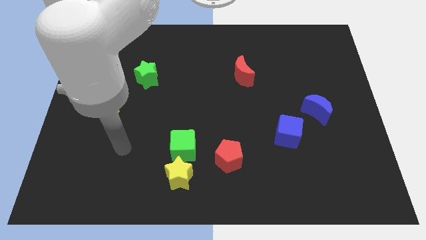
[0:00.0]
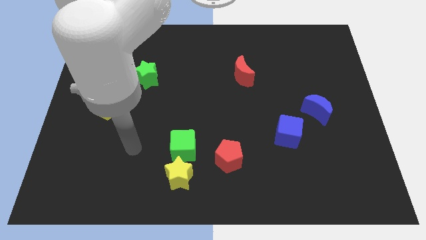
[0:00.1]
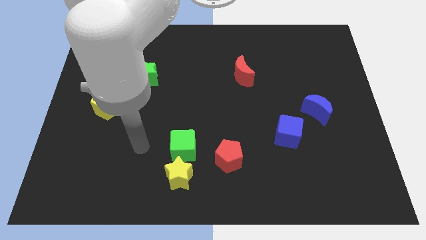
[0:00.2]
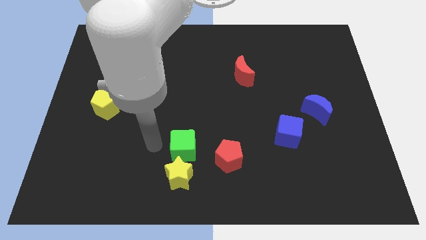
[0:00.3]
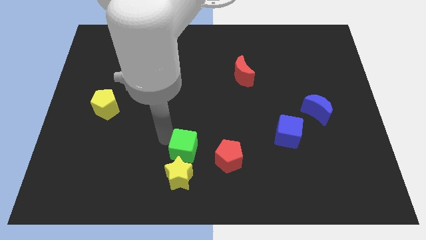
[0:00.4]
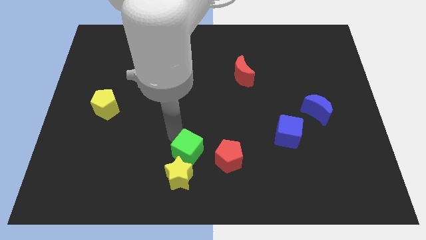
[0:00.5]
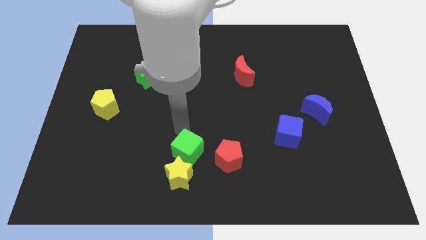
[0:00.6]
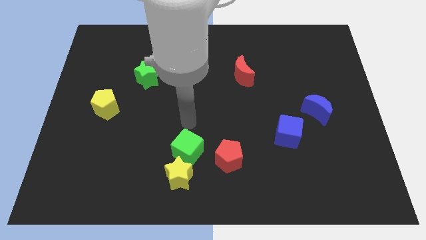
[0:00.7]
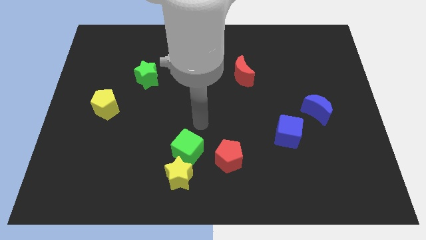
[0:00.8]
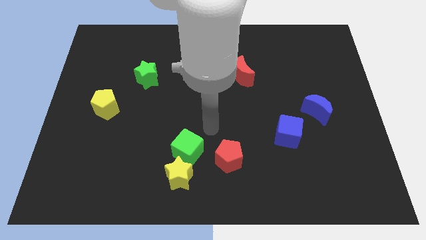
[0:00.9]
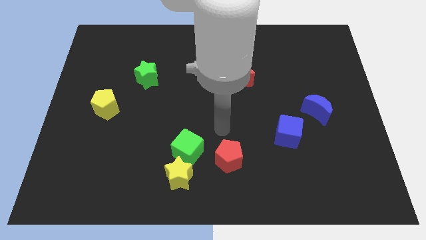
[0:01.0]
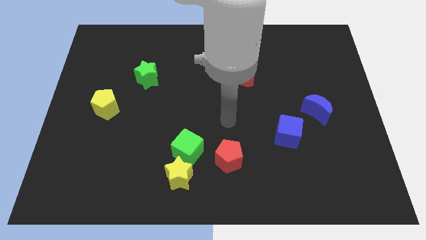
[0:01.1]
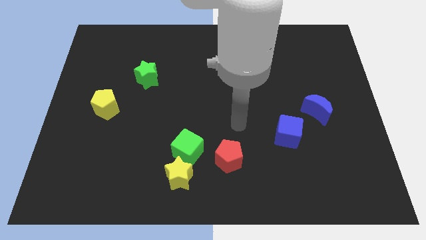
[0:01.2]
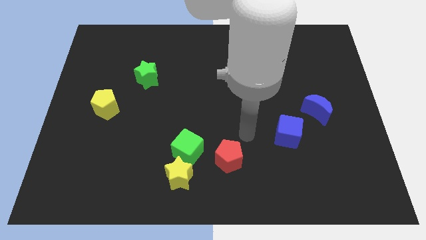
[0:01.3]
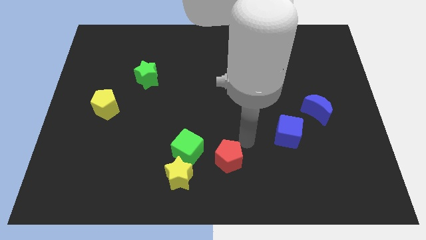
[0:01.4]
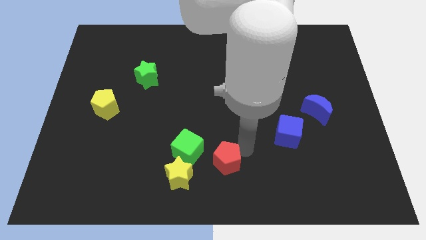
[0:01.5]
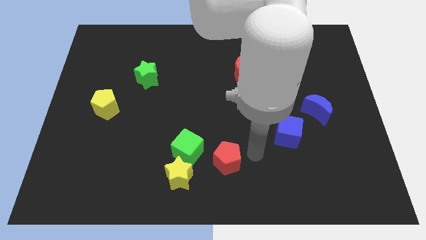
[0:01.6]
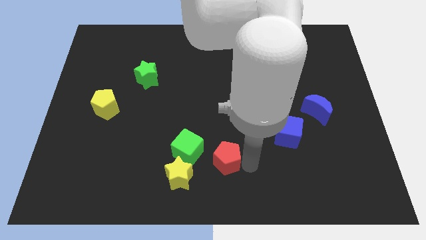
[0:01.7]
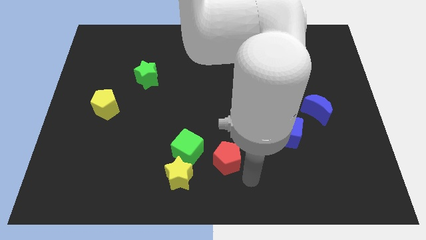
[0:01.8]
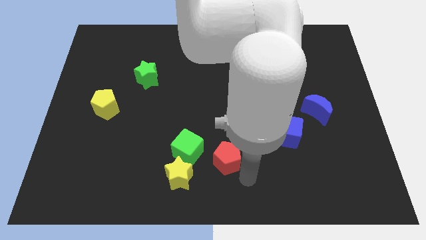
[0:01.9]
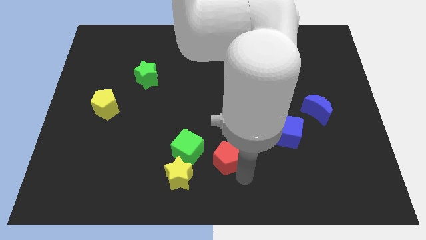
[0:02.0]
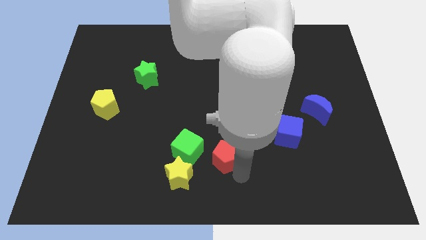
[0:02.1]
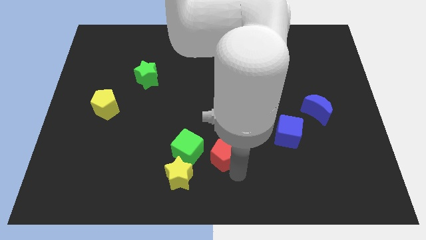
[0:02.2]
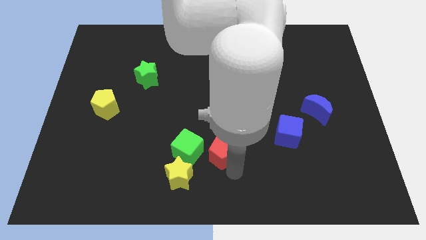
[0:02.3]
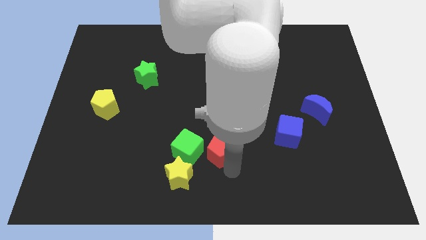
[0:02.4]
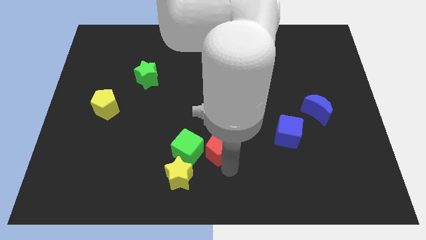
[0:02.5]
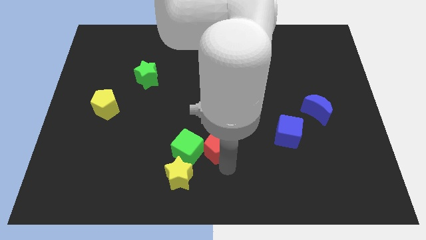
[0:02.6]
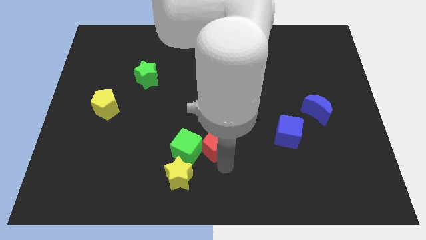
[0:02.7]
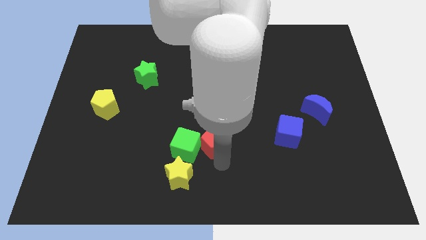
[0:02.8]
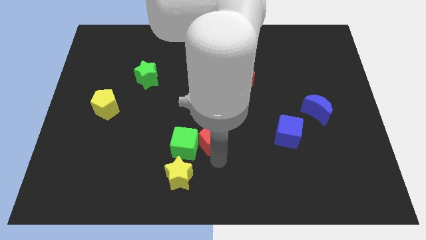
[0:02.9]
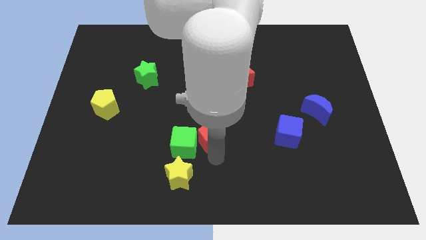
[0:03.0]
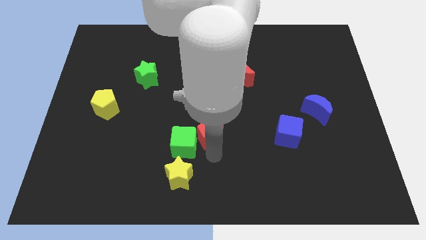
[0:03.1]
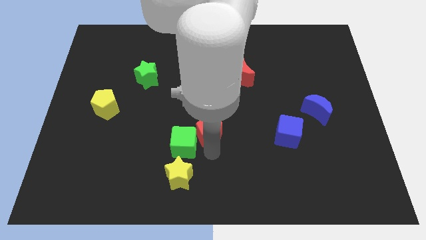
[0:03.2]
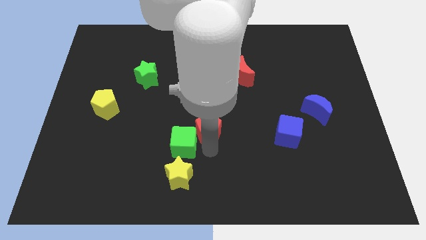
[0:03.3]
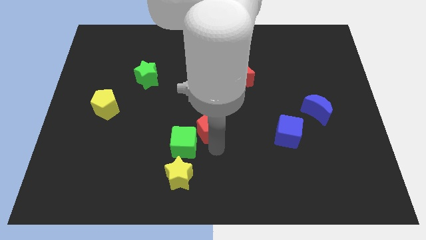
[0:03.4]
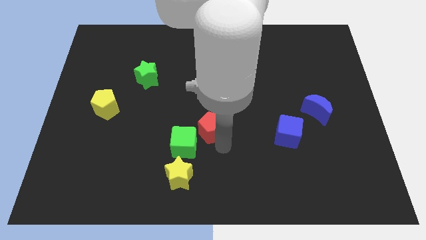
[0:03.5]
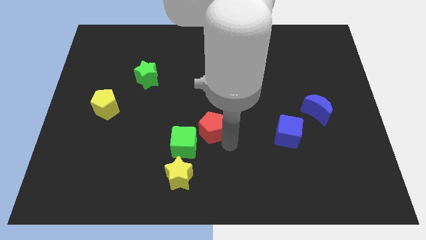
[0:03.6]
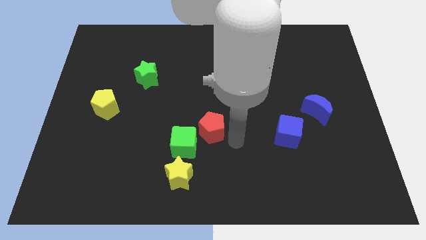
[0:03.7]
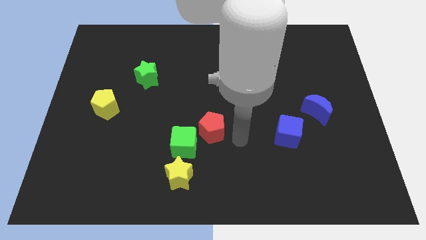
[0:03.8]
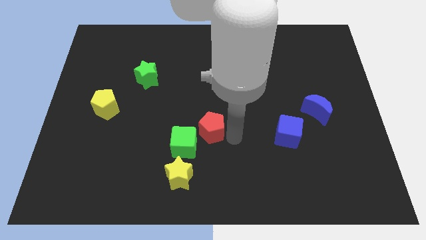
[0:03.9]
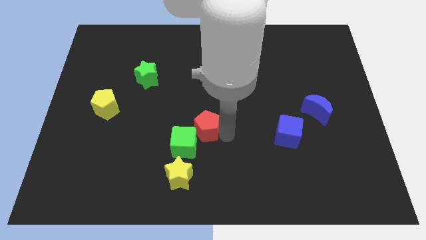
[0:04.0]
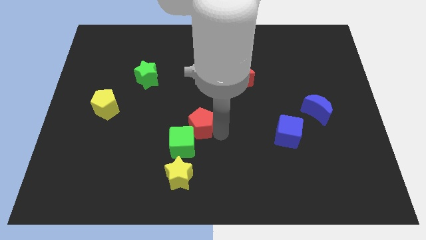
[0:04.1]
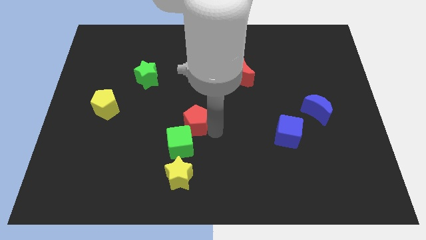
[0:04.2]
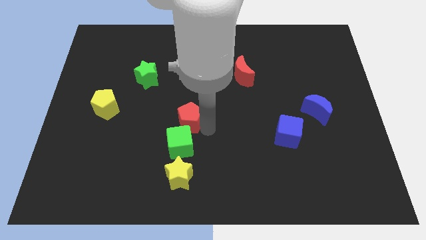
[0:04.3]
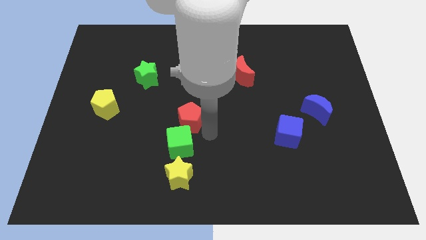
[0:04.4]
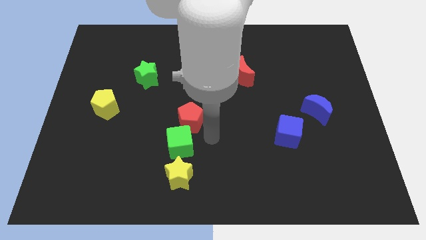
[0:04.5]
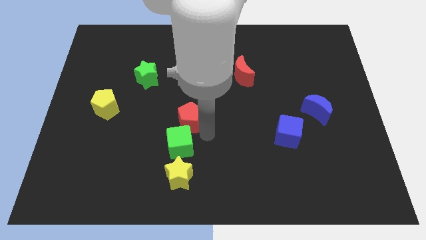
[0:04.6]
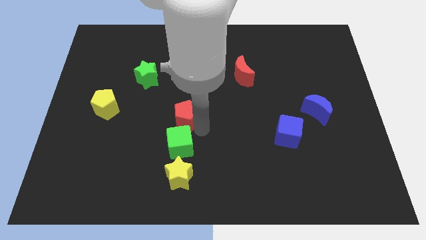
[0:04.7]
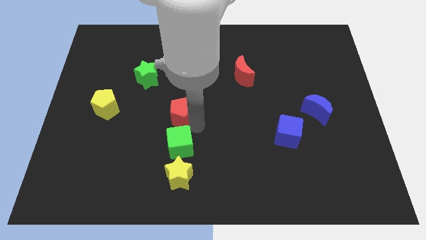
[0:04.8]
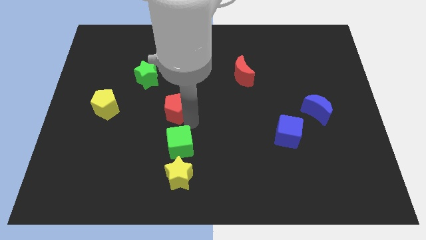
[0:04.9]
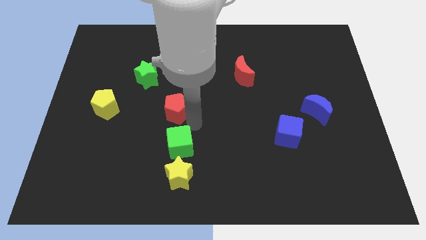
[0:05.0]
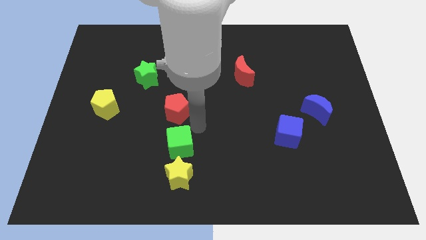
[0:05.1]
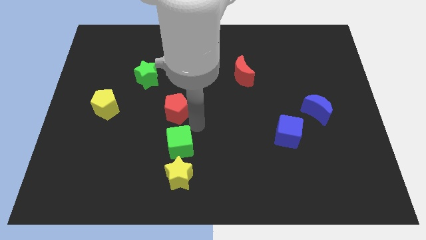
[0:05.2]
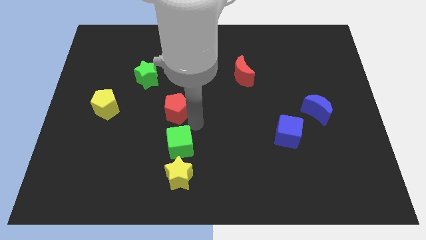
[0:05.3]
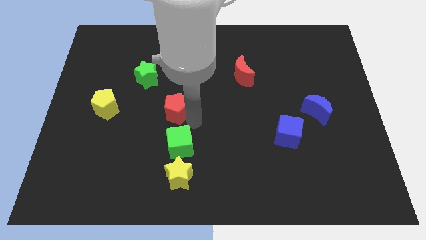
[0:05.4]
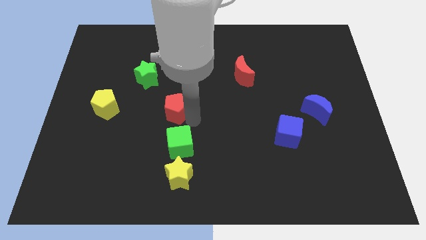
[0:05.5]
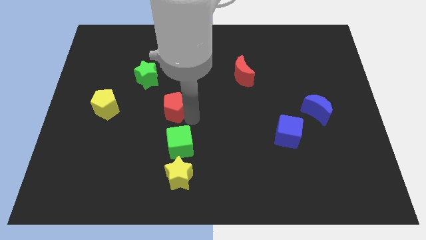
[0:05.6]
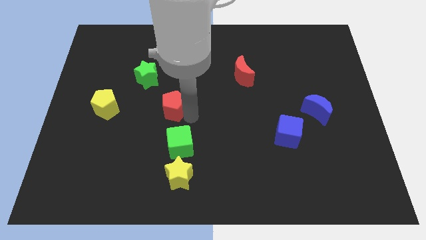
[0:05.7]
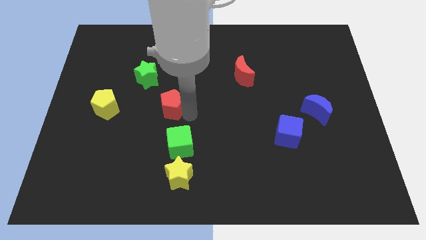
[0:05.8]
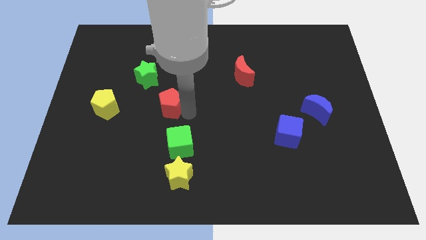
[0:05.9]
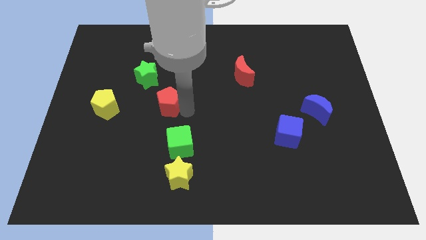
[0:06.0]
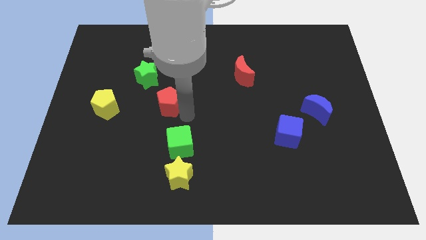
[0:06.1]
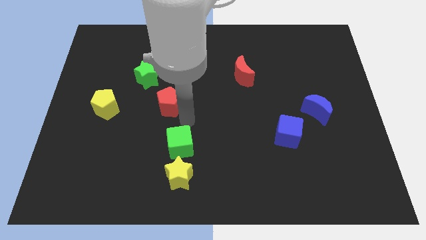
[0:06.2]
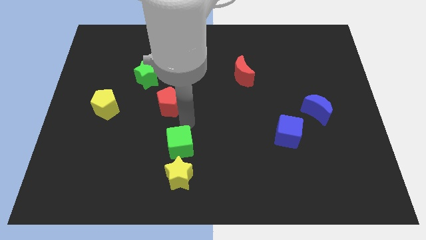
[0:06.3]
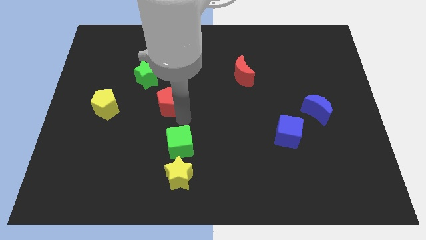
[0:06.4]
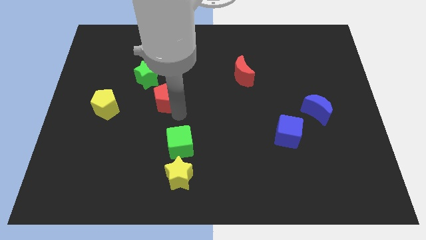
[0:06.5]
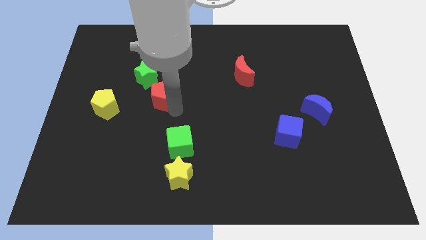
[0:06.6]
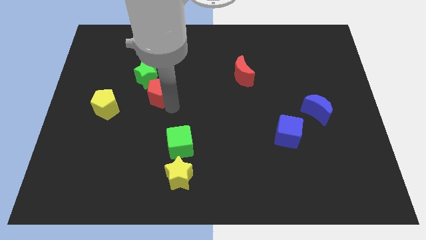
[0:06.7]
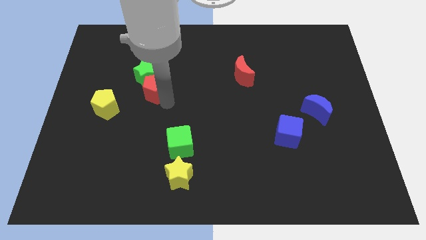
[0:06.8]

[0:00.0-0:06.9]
slide the red pentagon close to the green star

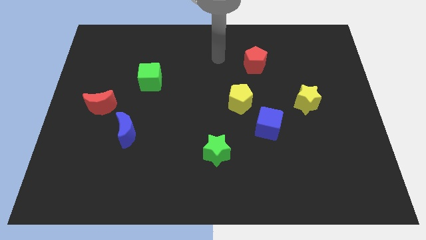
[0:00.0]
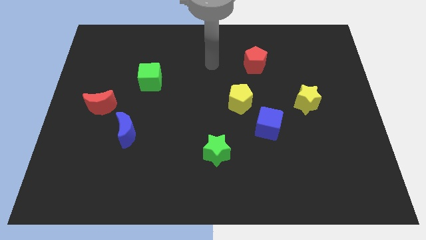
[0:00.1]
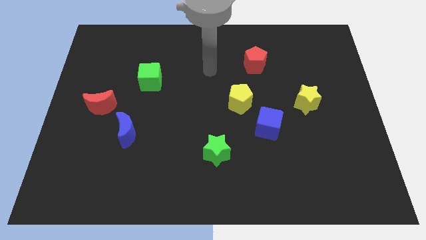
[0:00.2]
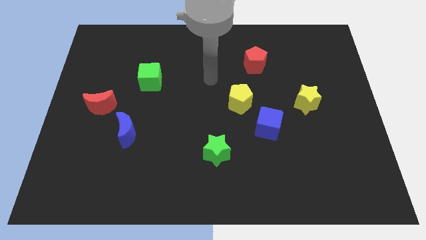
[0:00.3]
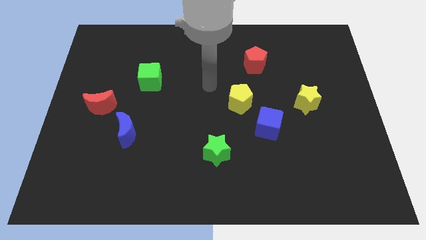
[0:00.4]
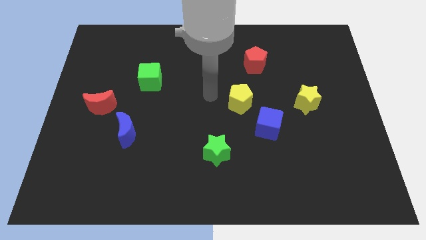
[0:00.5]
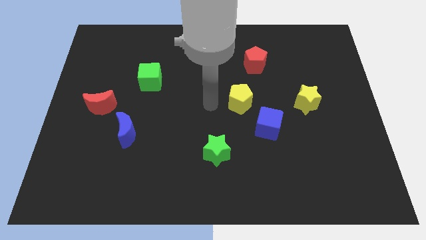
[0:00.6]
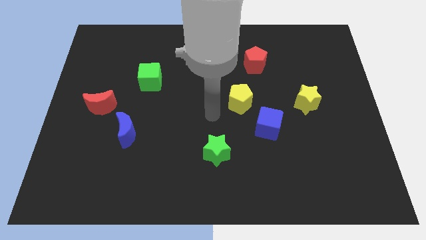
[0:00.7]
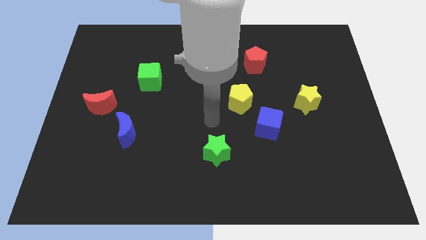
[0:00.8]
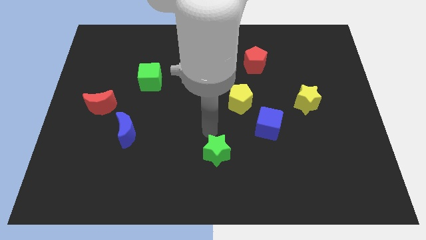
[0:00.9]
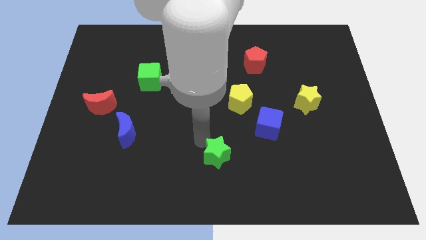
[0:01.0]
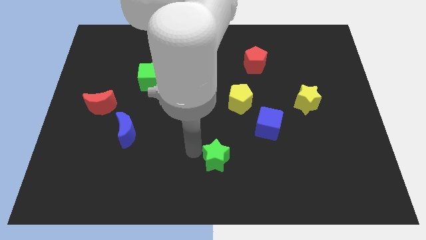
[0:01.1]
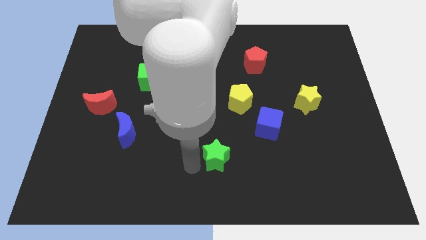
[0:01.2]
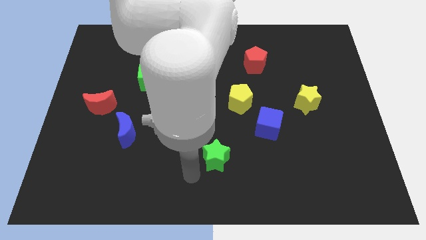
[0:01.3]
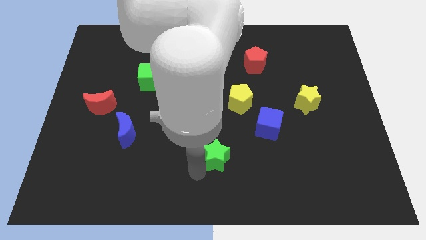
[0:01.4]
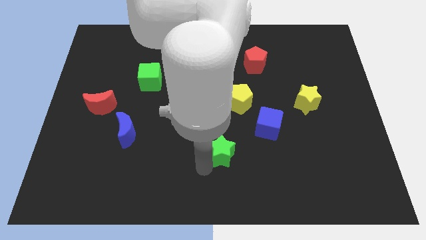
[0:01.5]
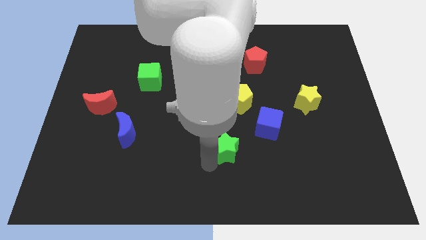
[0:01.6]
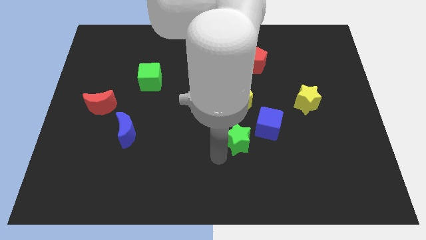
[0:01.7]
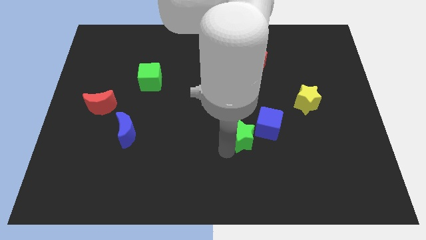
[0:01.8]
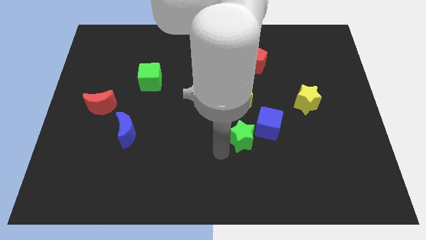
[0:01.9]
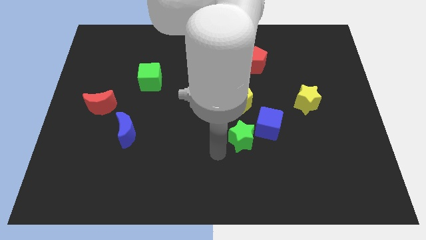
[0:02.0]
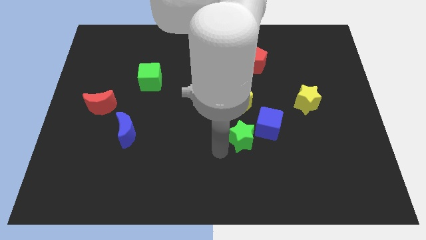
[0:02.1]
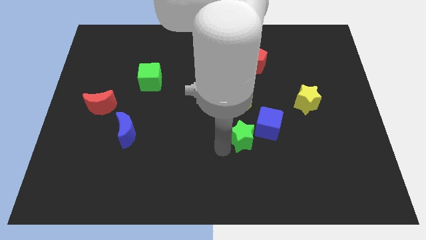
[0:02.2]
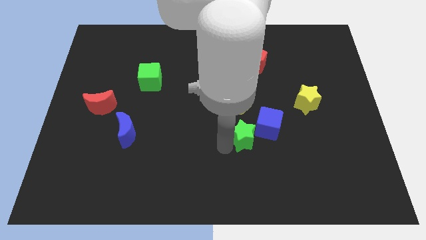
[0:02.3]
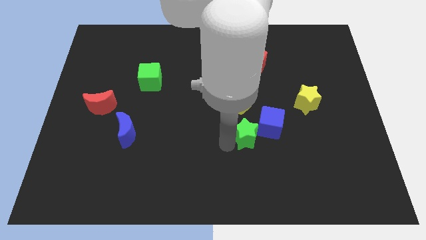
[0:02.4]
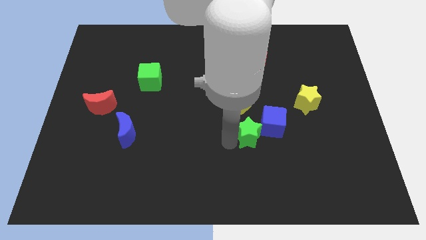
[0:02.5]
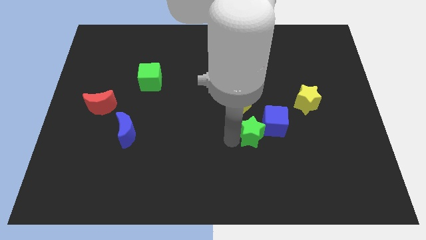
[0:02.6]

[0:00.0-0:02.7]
slide the green star close to the blue cube
